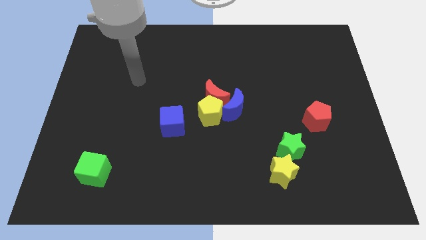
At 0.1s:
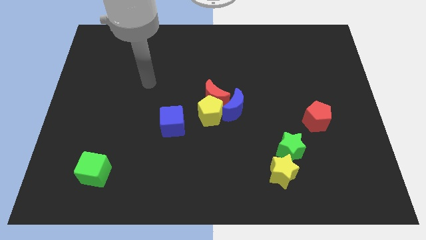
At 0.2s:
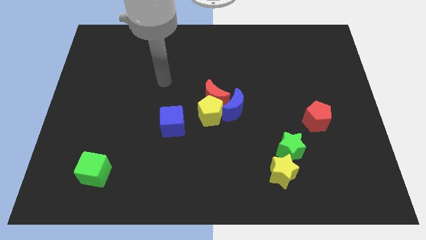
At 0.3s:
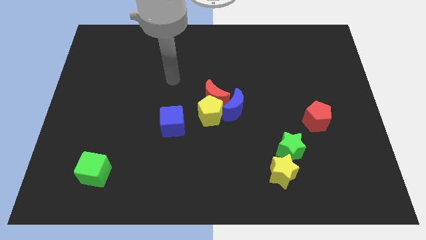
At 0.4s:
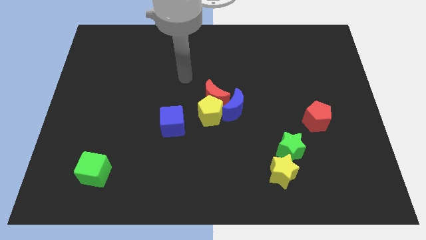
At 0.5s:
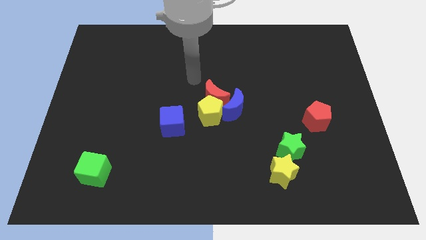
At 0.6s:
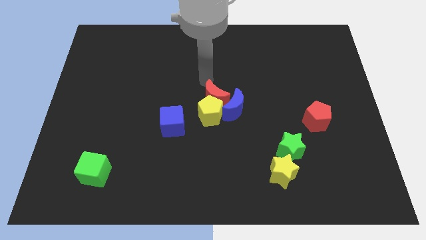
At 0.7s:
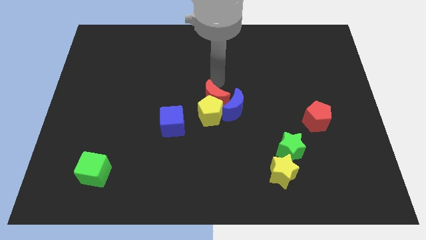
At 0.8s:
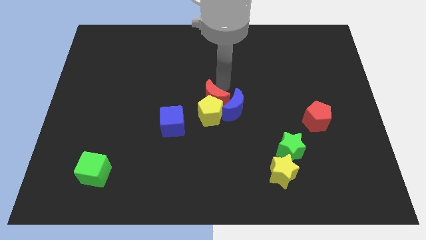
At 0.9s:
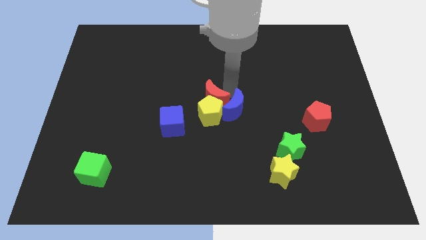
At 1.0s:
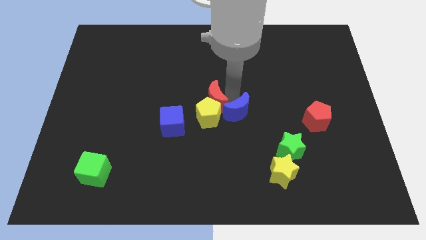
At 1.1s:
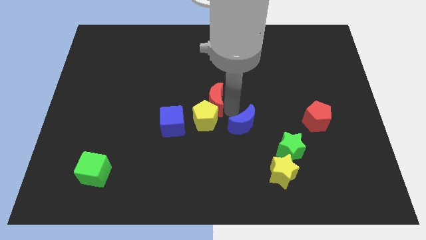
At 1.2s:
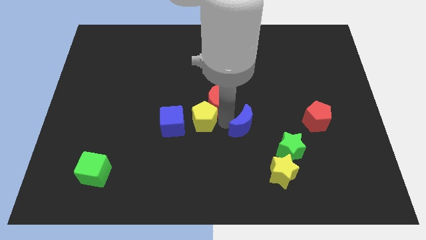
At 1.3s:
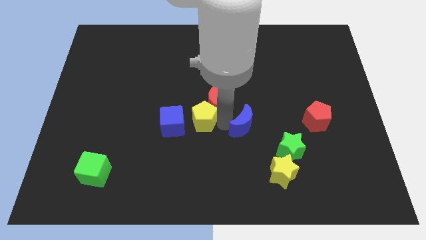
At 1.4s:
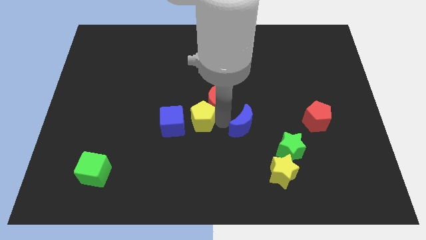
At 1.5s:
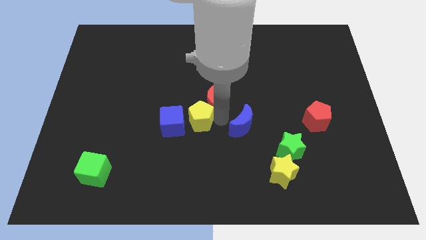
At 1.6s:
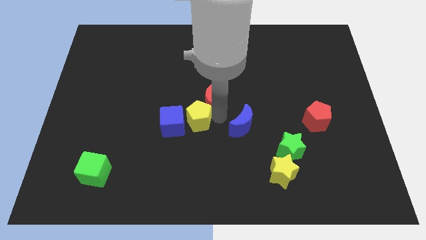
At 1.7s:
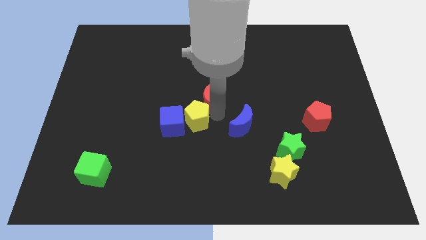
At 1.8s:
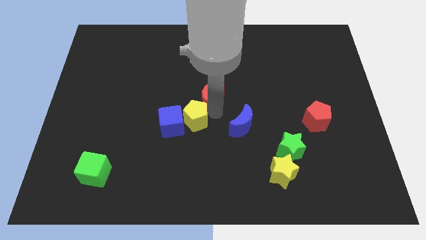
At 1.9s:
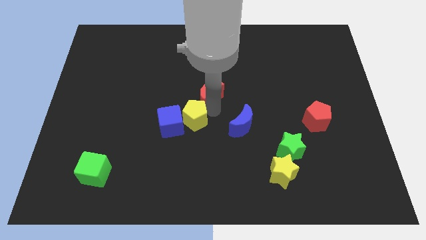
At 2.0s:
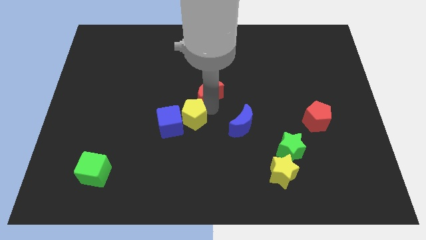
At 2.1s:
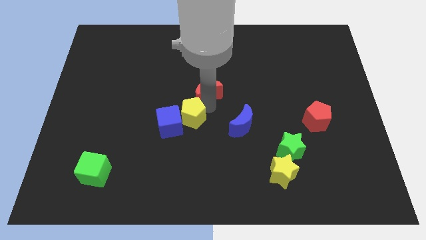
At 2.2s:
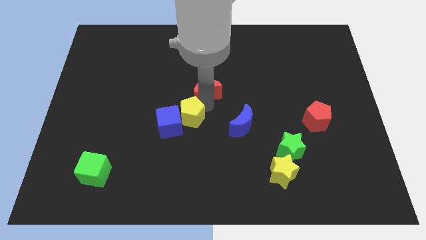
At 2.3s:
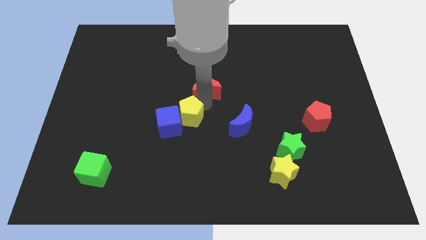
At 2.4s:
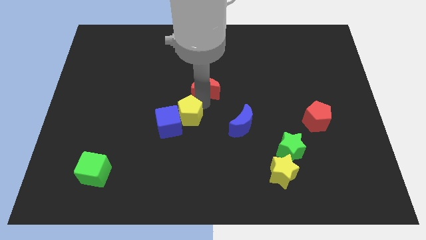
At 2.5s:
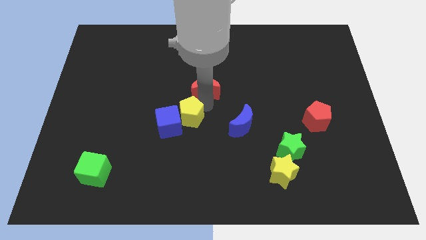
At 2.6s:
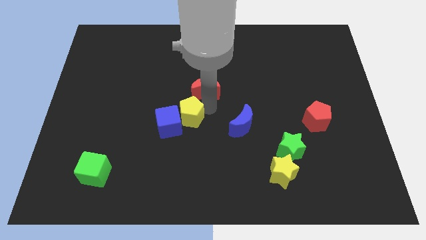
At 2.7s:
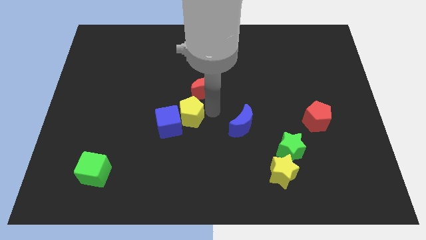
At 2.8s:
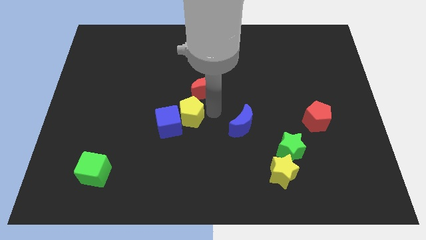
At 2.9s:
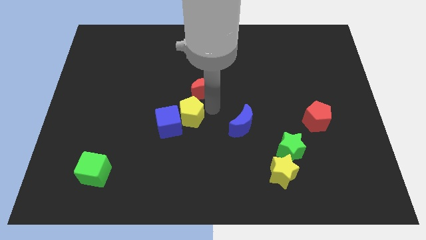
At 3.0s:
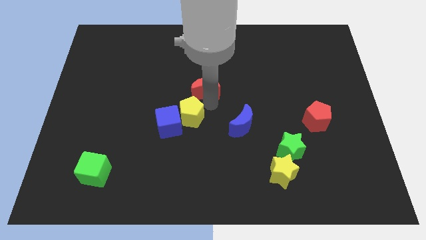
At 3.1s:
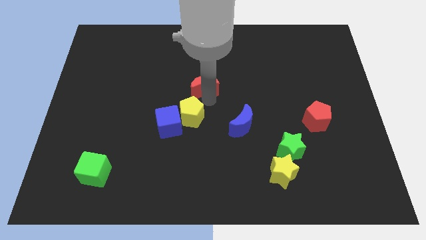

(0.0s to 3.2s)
separate the red moon from the yellow pentagon and blue moon

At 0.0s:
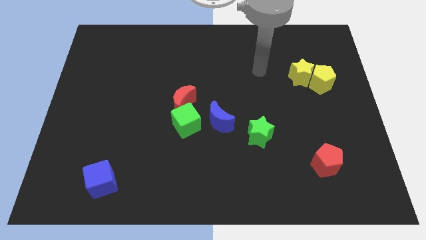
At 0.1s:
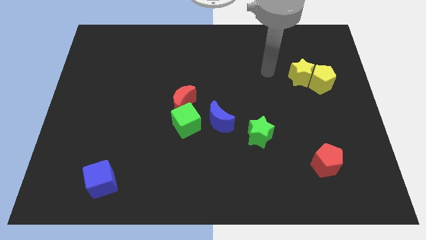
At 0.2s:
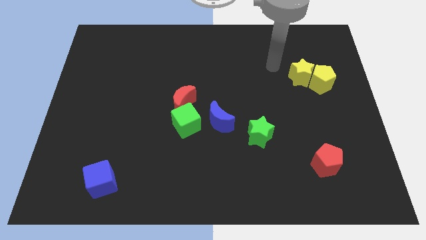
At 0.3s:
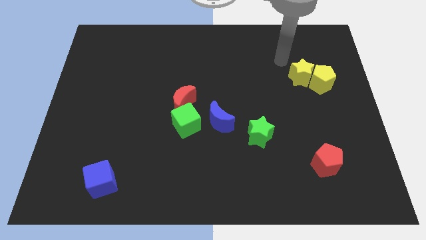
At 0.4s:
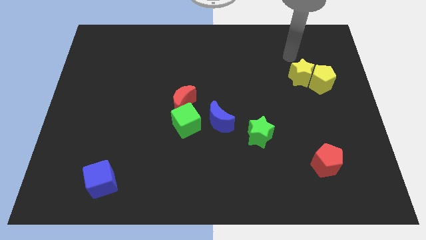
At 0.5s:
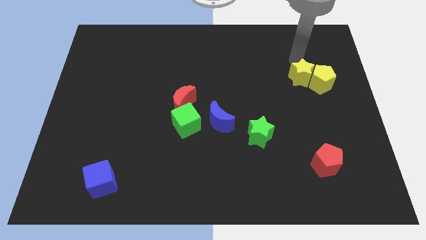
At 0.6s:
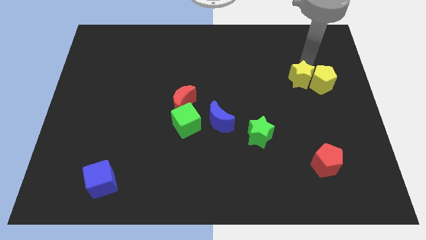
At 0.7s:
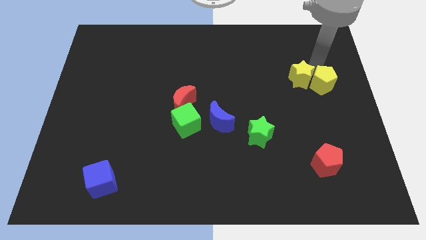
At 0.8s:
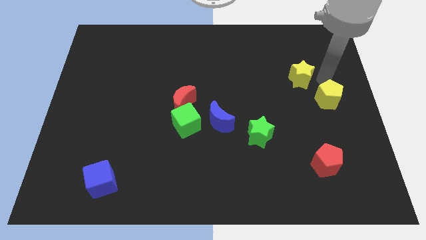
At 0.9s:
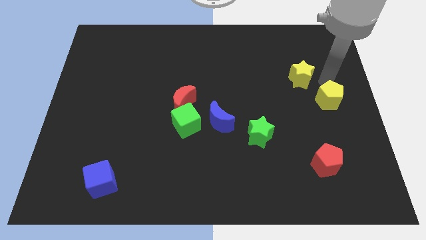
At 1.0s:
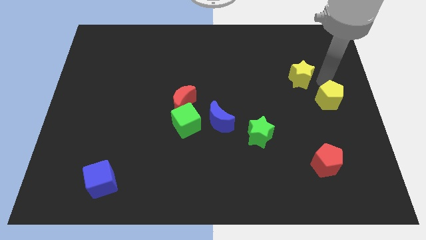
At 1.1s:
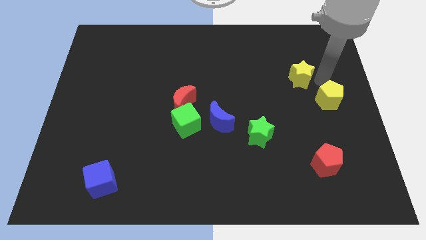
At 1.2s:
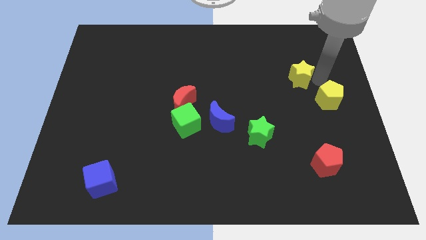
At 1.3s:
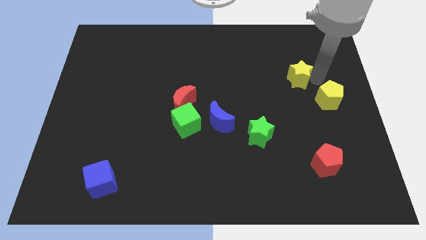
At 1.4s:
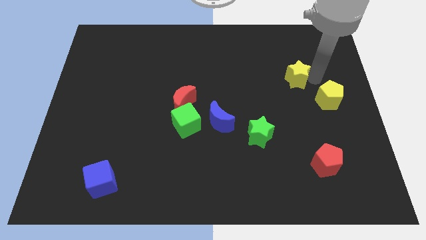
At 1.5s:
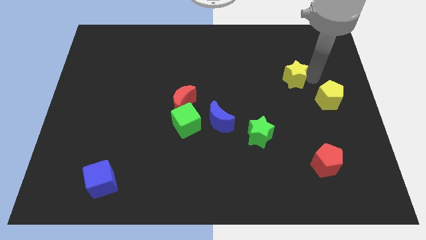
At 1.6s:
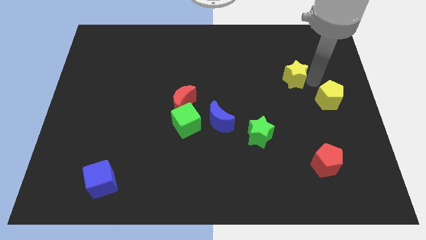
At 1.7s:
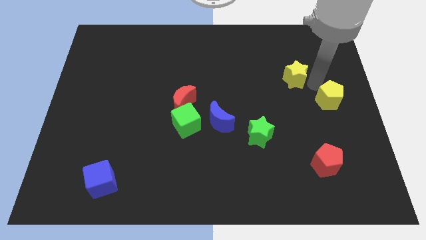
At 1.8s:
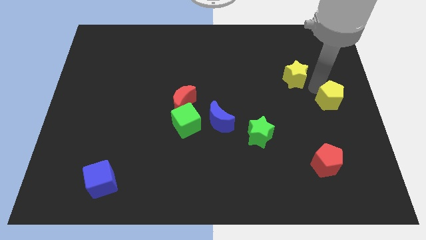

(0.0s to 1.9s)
move the yellow star away from the yellow pentagon

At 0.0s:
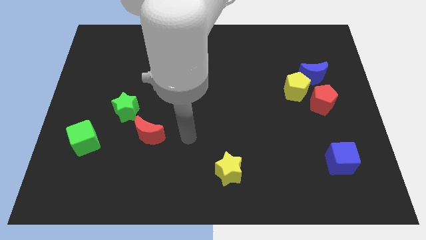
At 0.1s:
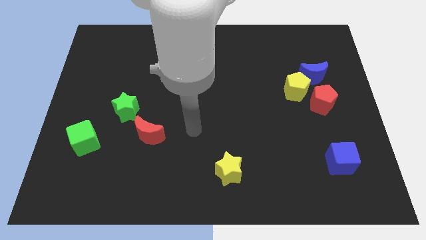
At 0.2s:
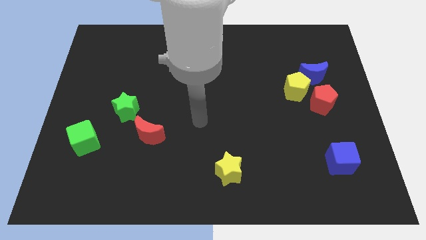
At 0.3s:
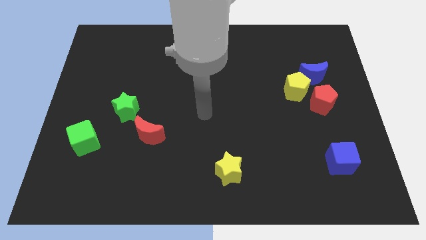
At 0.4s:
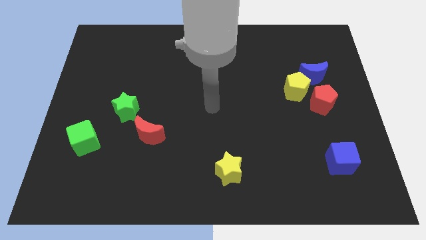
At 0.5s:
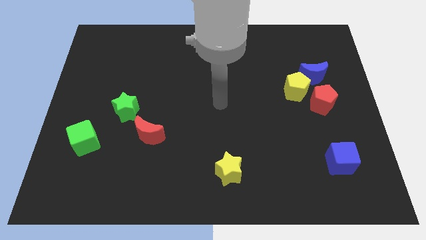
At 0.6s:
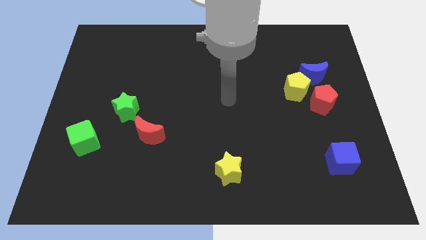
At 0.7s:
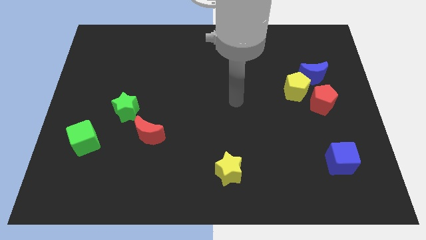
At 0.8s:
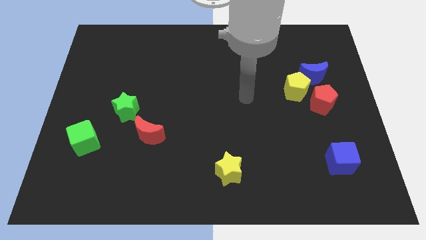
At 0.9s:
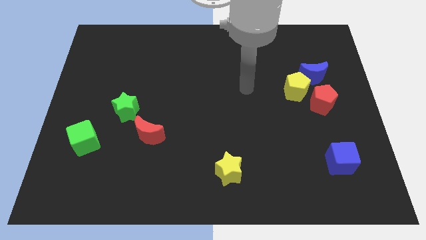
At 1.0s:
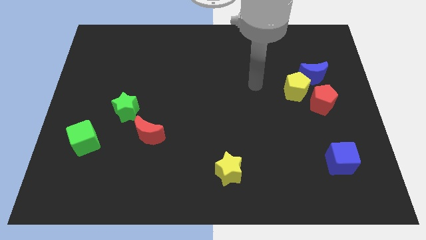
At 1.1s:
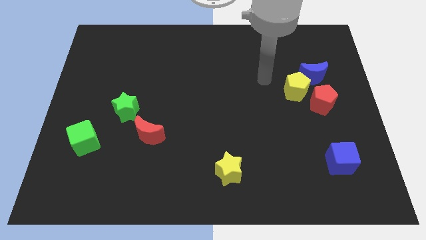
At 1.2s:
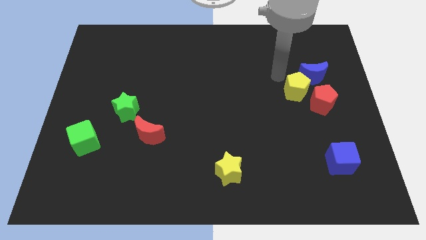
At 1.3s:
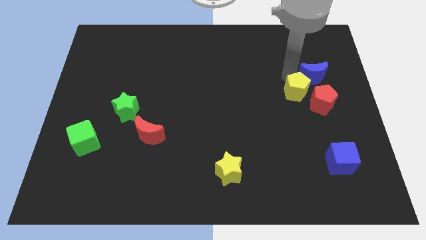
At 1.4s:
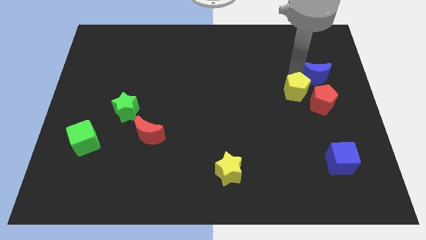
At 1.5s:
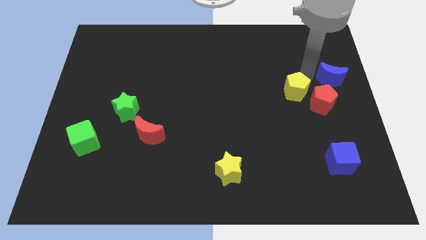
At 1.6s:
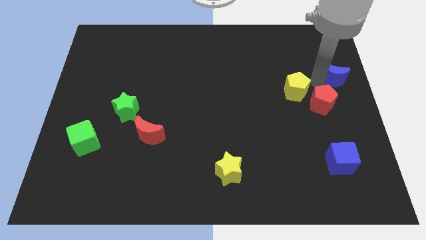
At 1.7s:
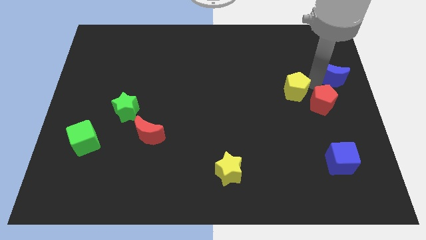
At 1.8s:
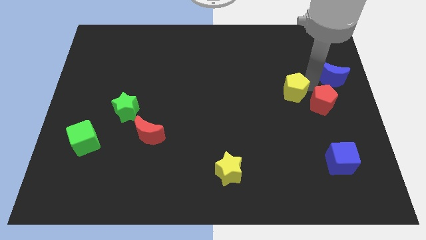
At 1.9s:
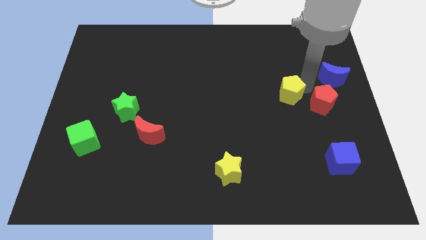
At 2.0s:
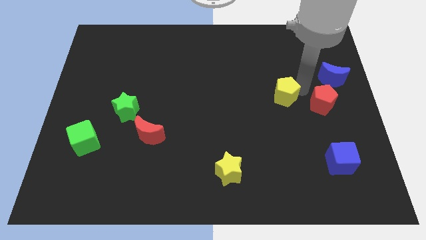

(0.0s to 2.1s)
separate the yellow pentagon from the blue moon and red pentagon

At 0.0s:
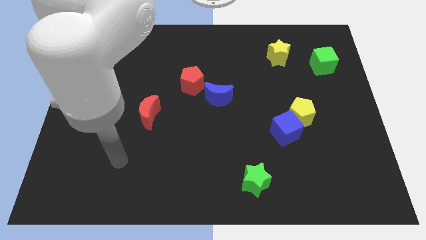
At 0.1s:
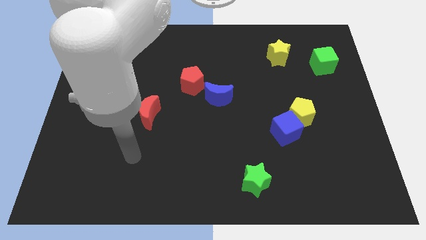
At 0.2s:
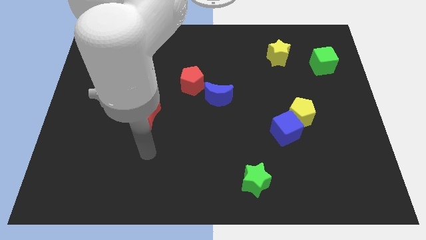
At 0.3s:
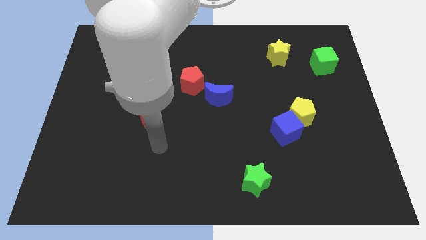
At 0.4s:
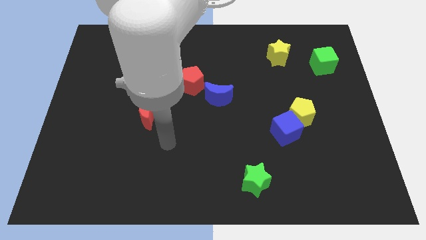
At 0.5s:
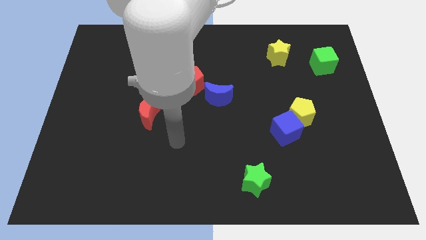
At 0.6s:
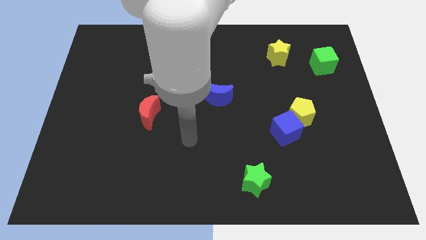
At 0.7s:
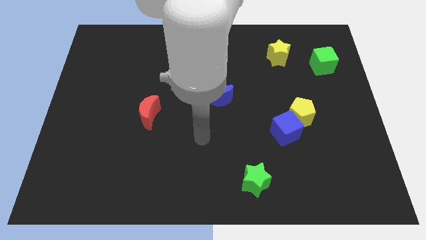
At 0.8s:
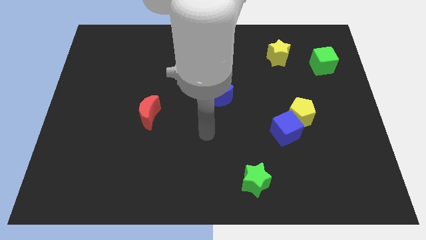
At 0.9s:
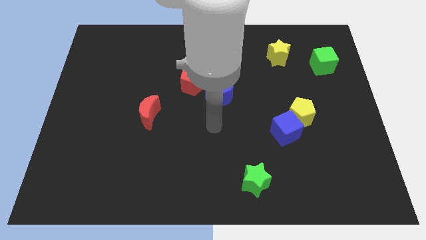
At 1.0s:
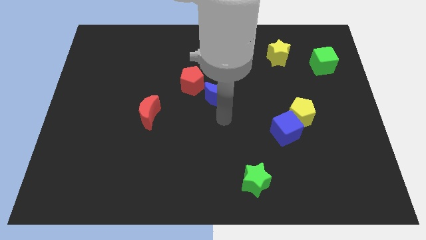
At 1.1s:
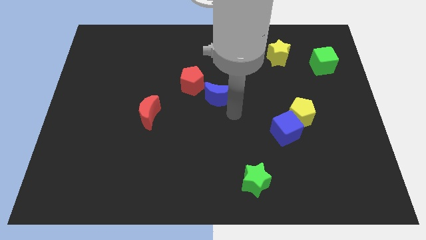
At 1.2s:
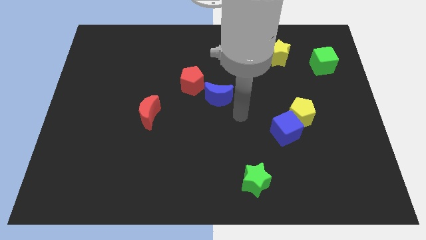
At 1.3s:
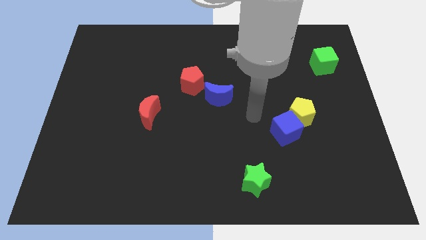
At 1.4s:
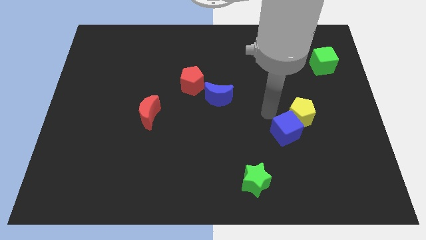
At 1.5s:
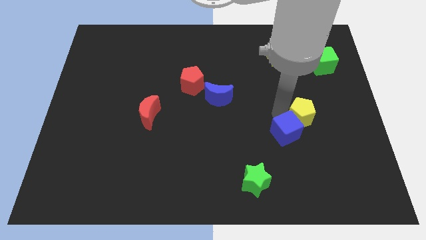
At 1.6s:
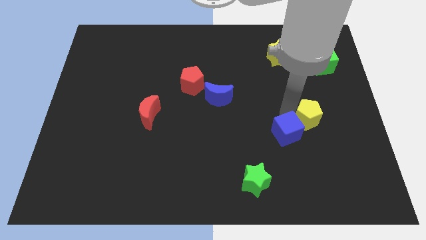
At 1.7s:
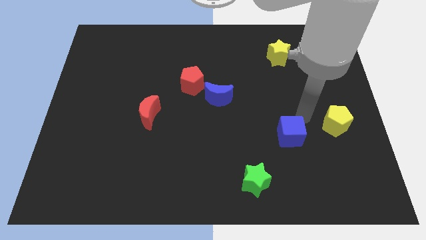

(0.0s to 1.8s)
move the blue cube away from the yellow pentagon

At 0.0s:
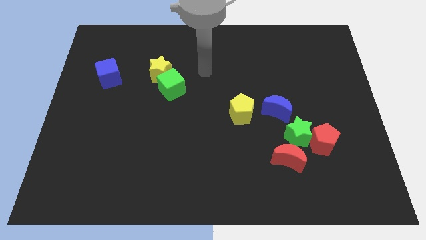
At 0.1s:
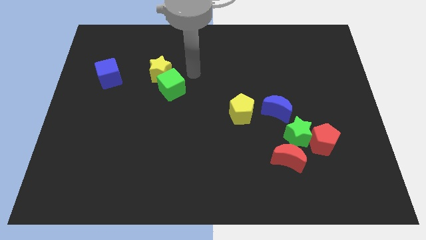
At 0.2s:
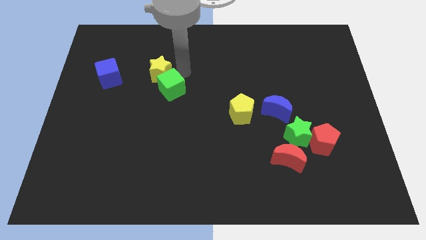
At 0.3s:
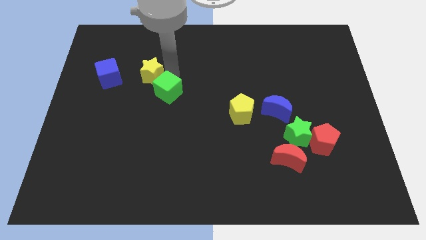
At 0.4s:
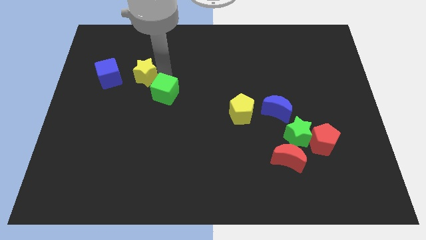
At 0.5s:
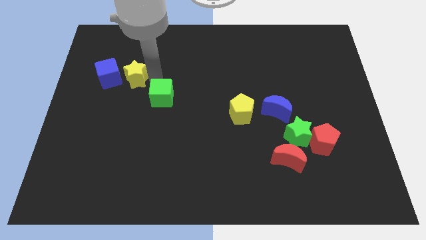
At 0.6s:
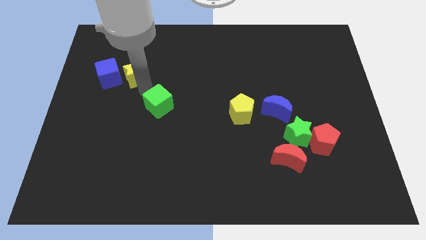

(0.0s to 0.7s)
separate the green cube from the yellow star
